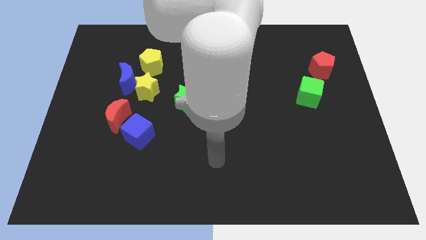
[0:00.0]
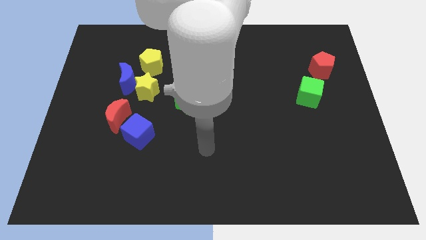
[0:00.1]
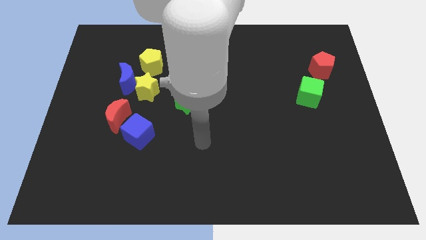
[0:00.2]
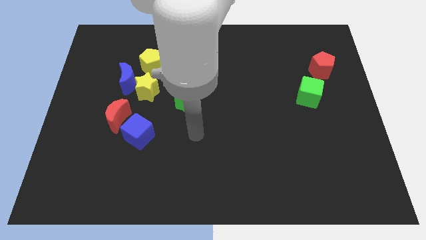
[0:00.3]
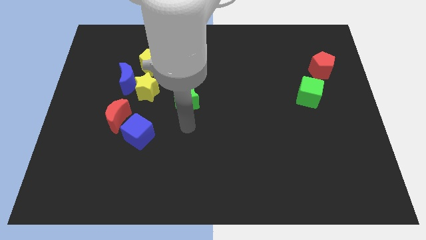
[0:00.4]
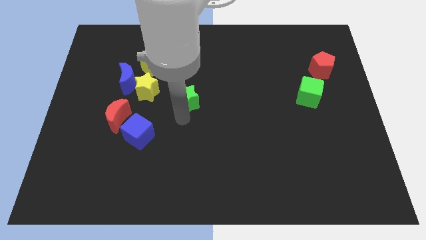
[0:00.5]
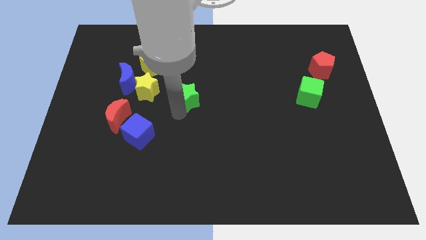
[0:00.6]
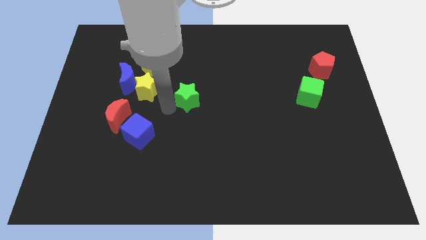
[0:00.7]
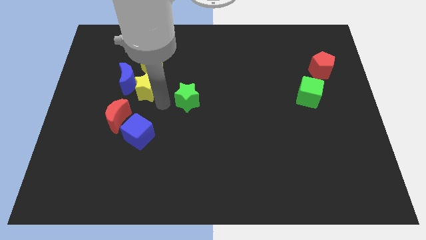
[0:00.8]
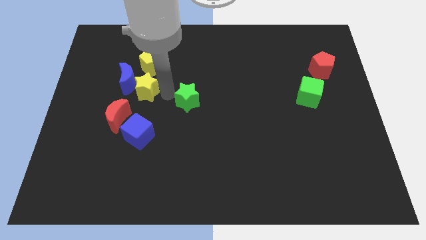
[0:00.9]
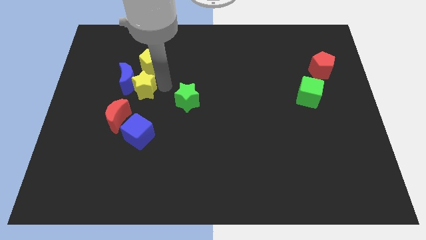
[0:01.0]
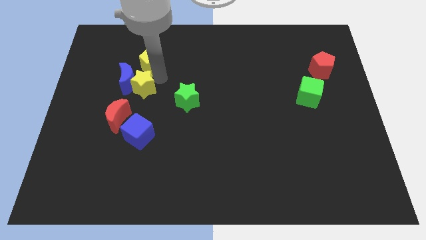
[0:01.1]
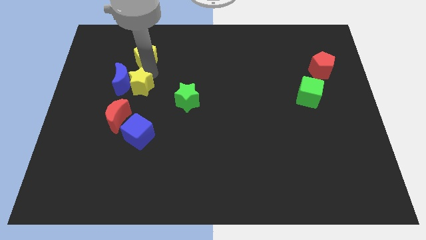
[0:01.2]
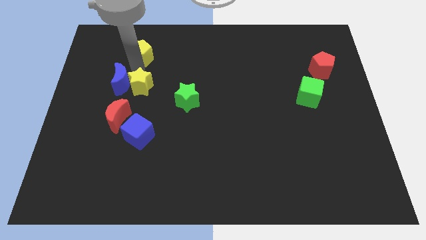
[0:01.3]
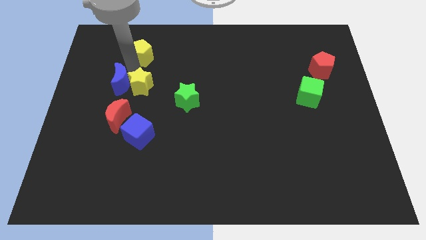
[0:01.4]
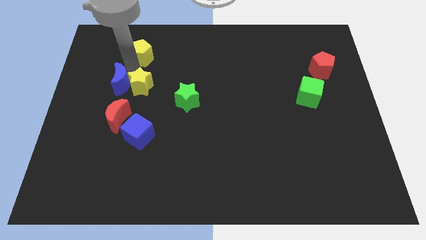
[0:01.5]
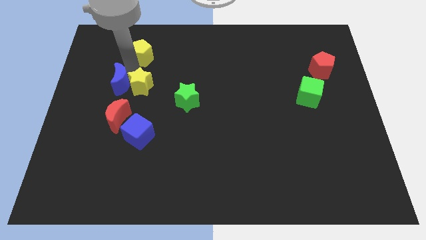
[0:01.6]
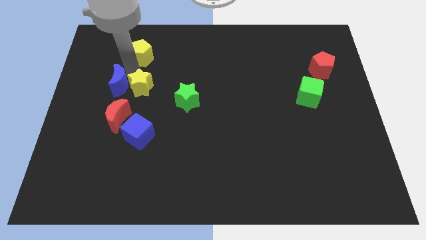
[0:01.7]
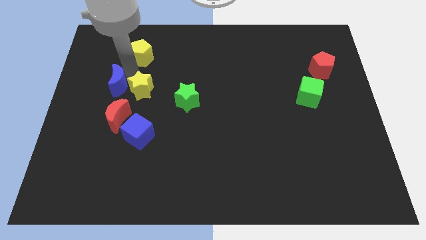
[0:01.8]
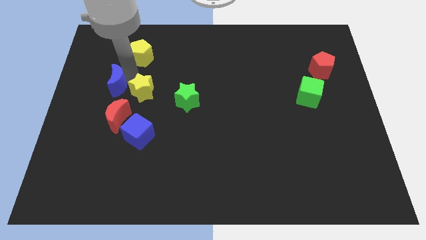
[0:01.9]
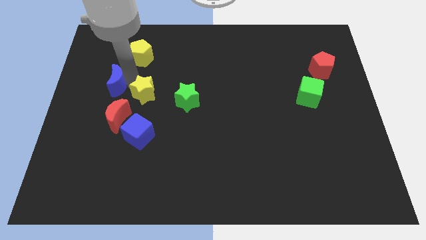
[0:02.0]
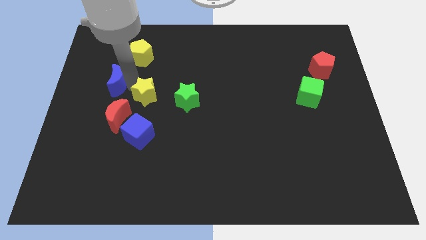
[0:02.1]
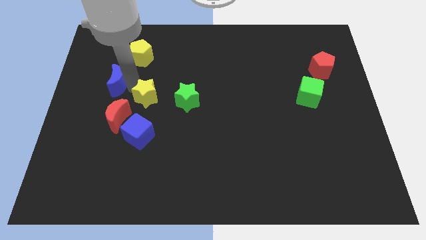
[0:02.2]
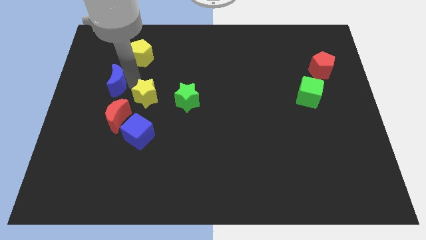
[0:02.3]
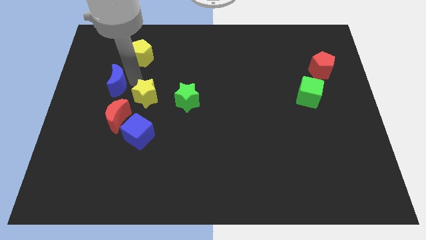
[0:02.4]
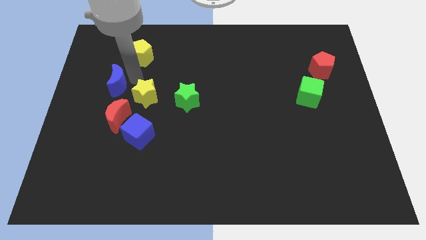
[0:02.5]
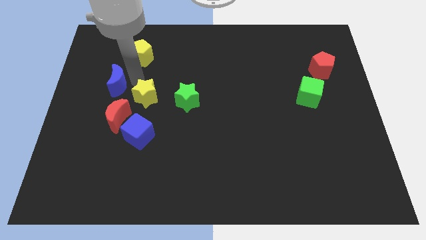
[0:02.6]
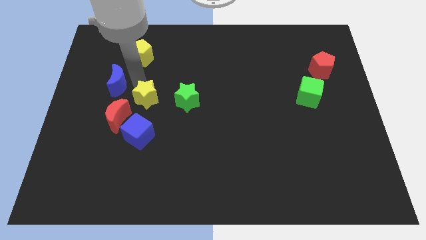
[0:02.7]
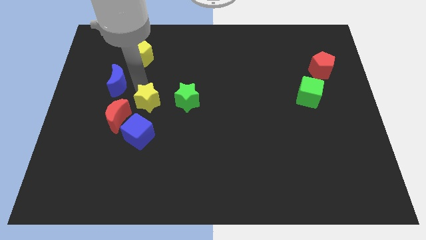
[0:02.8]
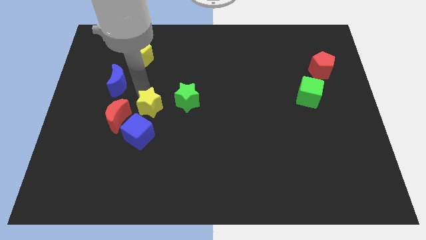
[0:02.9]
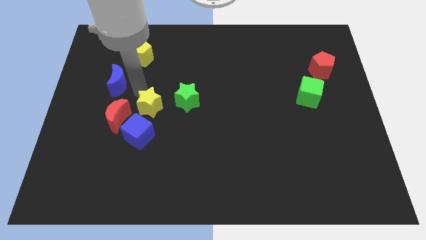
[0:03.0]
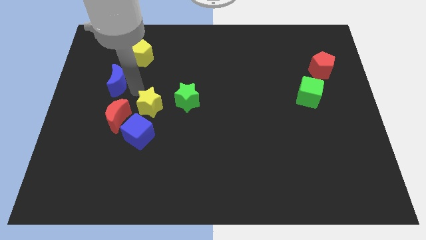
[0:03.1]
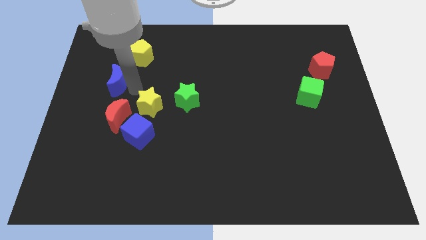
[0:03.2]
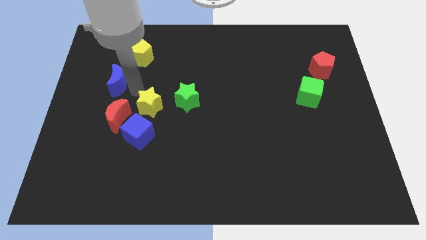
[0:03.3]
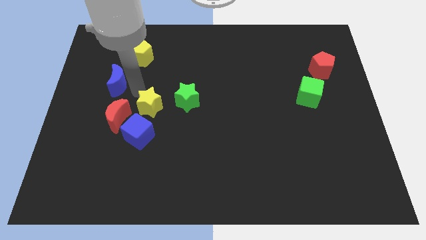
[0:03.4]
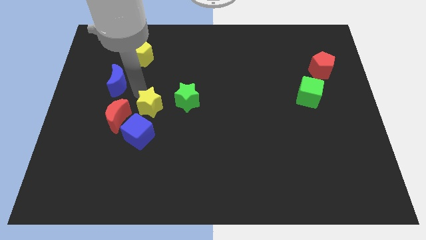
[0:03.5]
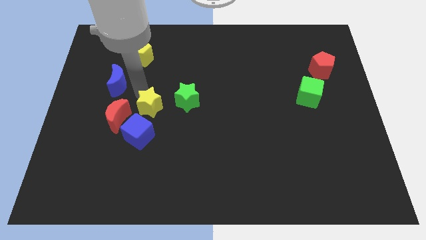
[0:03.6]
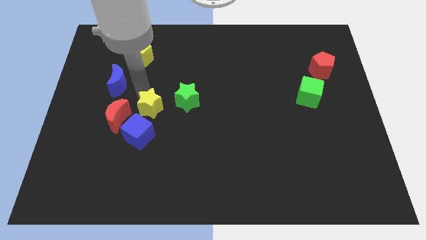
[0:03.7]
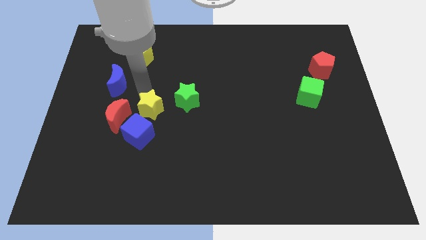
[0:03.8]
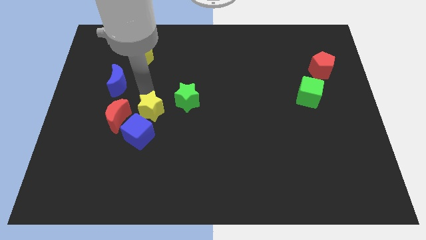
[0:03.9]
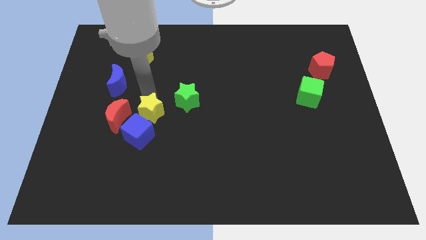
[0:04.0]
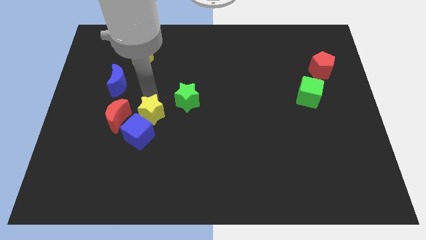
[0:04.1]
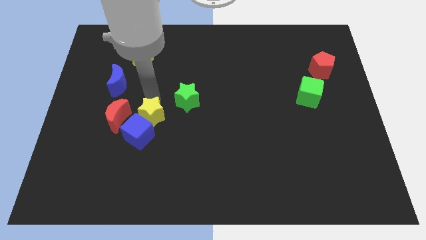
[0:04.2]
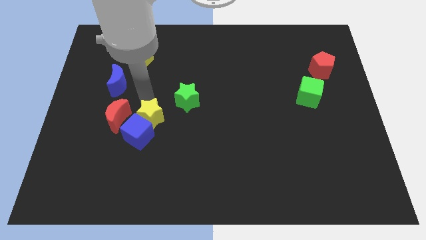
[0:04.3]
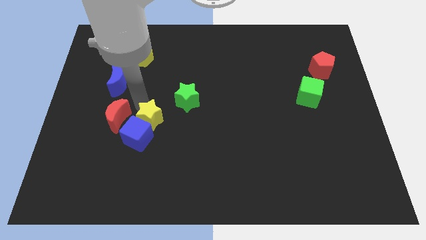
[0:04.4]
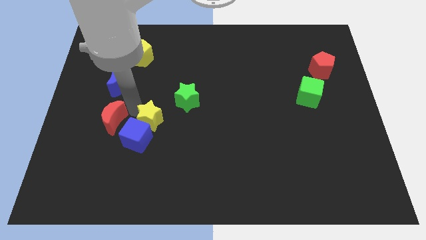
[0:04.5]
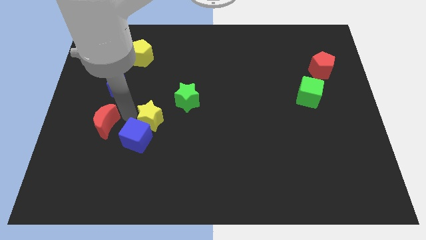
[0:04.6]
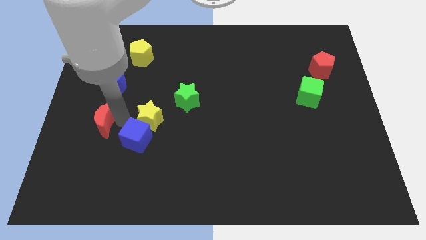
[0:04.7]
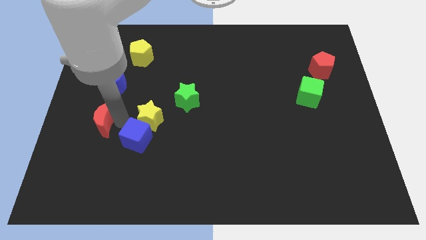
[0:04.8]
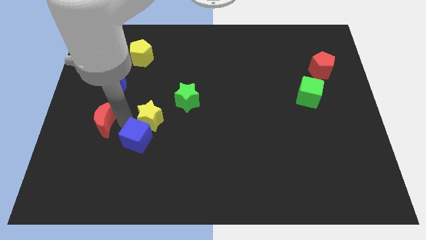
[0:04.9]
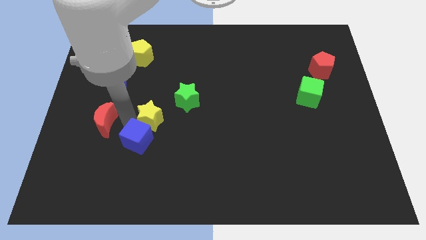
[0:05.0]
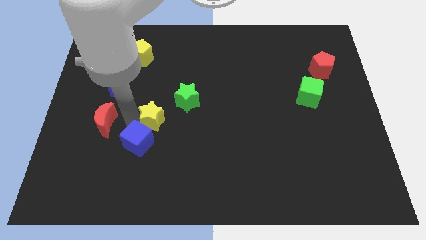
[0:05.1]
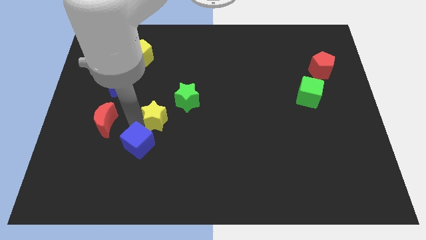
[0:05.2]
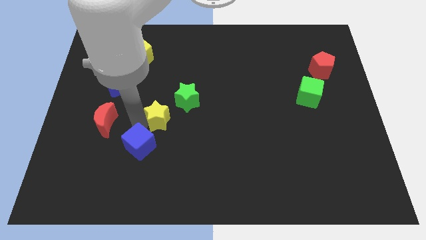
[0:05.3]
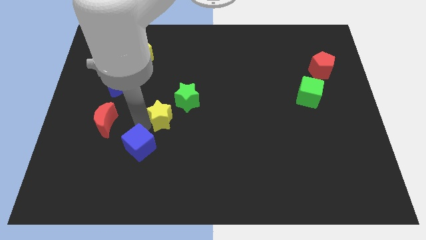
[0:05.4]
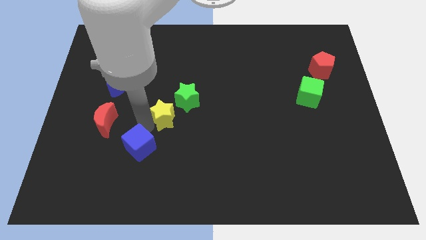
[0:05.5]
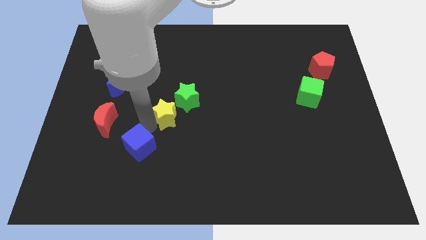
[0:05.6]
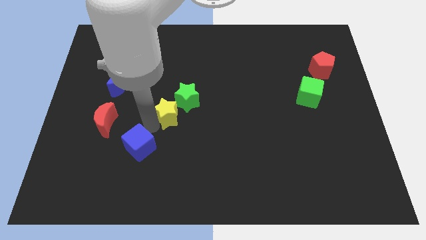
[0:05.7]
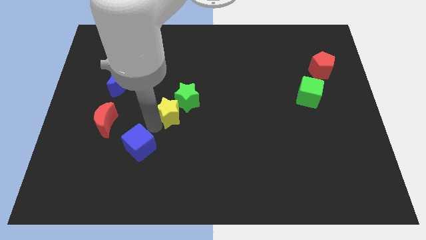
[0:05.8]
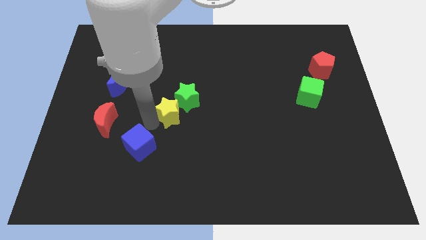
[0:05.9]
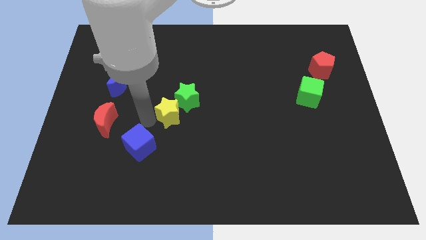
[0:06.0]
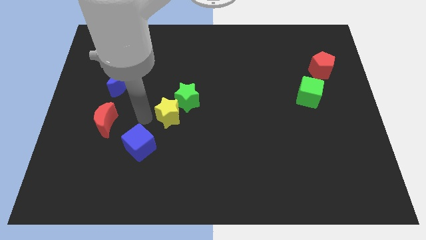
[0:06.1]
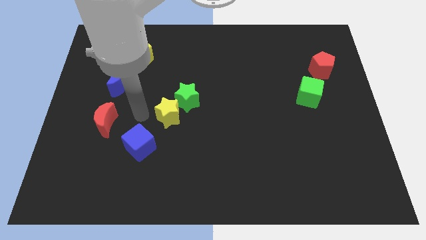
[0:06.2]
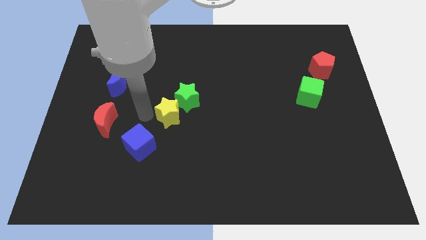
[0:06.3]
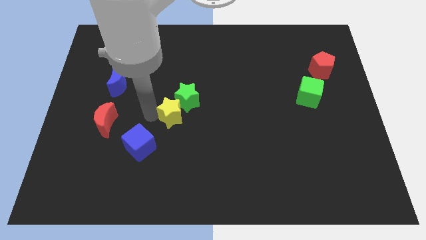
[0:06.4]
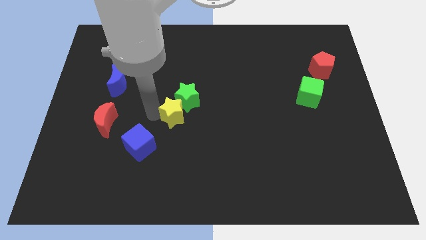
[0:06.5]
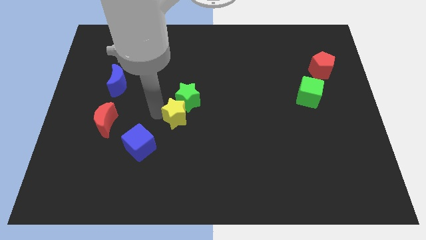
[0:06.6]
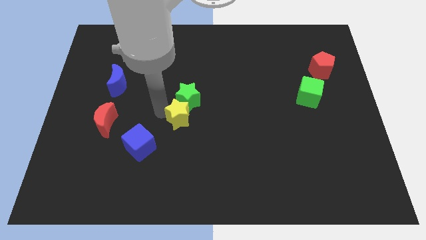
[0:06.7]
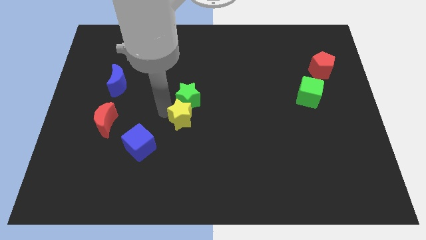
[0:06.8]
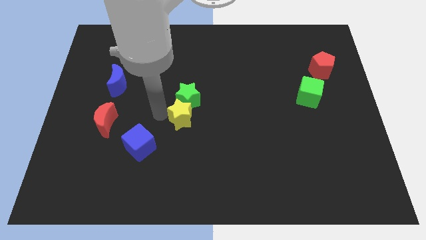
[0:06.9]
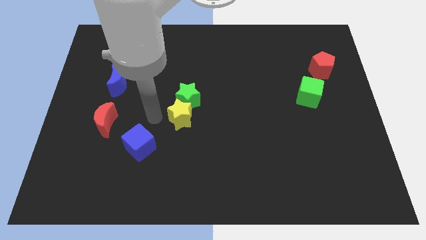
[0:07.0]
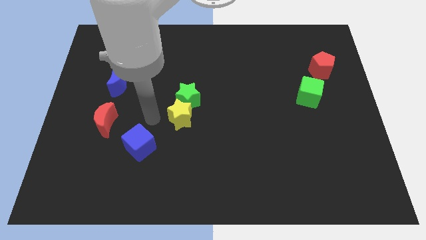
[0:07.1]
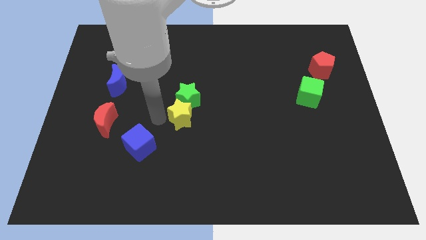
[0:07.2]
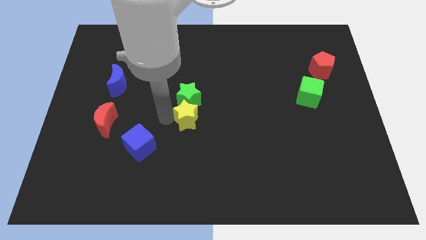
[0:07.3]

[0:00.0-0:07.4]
put the yellow star to the bottom right of the green star
